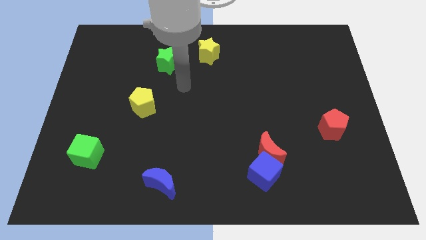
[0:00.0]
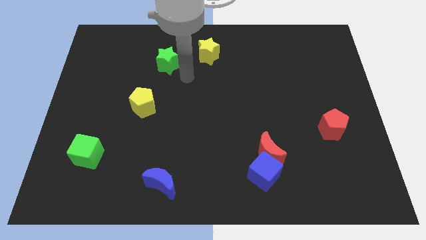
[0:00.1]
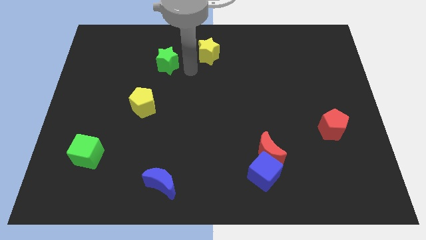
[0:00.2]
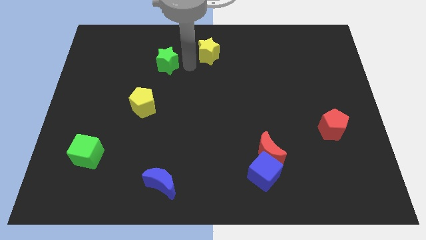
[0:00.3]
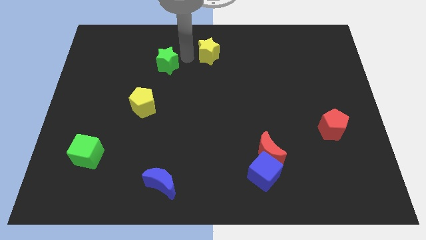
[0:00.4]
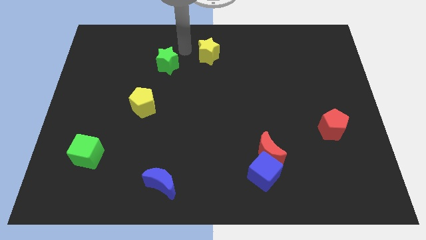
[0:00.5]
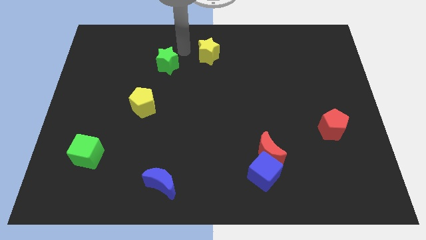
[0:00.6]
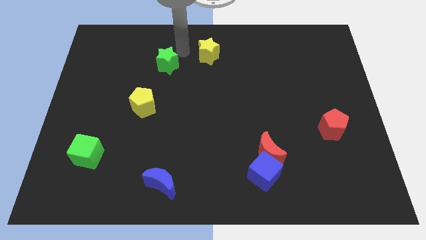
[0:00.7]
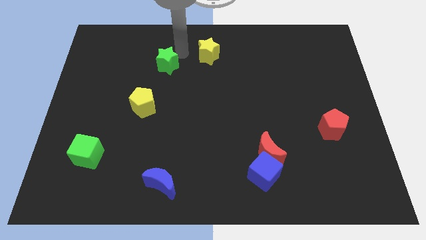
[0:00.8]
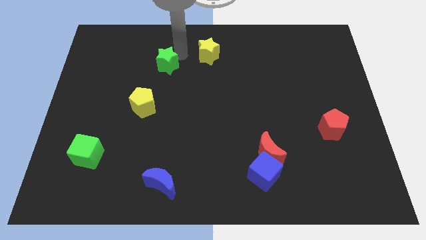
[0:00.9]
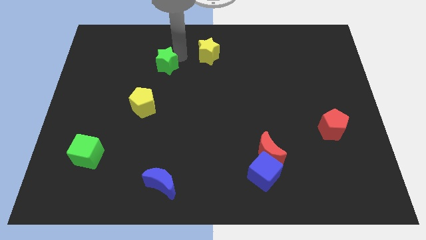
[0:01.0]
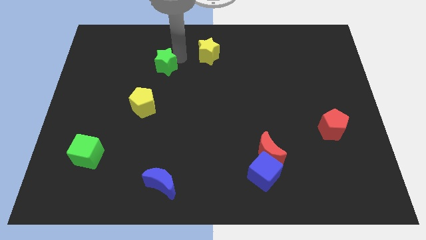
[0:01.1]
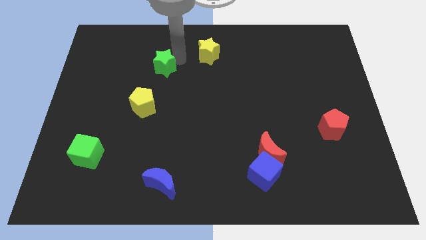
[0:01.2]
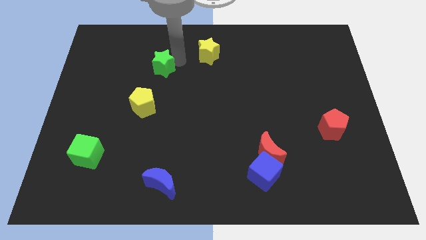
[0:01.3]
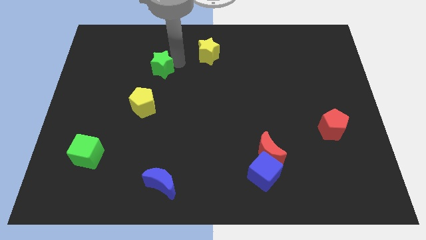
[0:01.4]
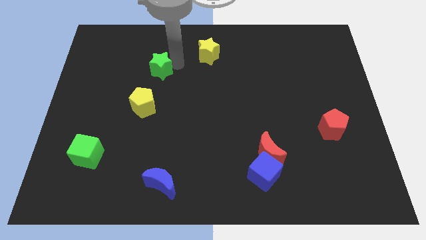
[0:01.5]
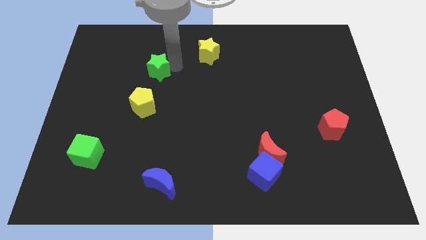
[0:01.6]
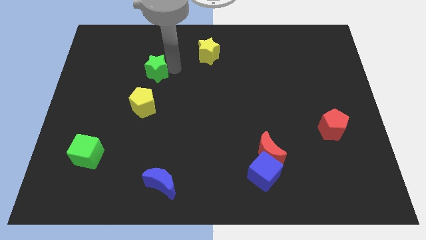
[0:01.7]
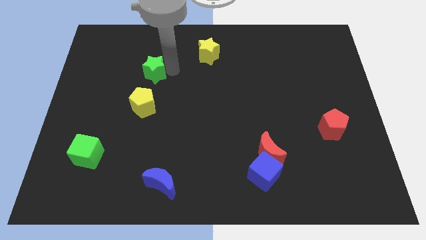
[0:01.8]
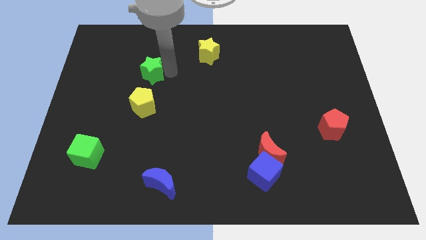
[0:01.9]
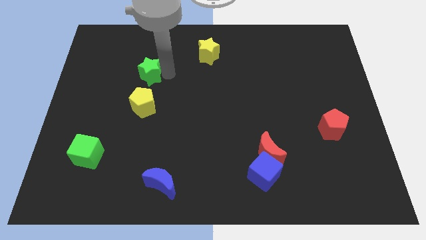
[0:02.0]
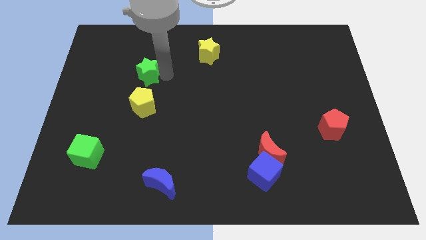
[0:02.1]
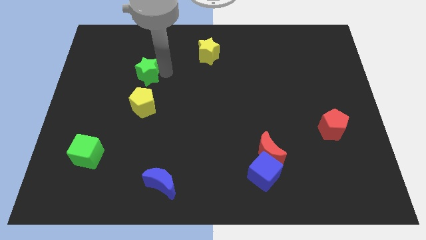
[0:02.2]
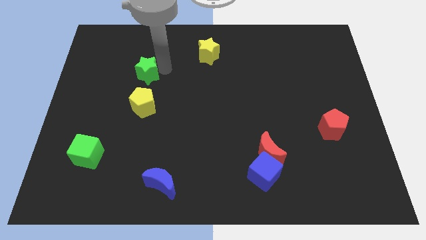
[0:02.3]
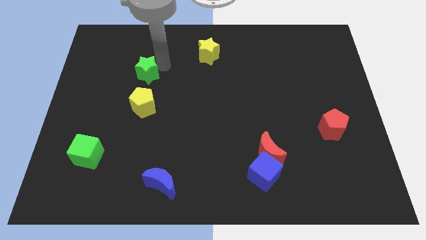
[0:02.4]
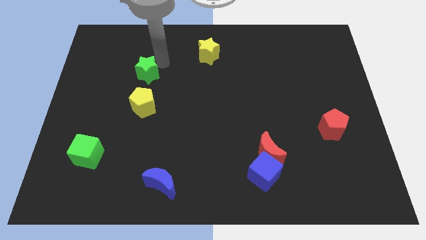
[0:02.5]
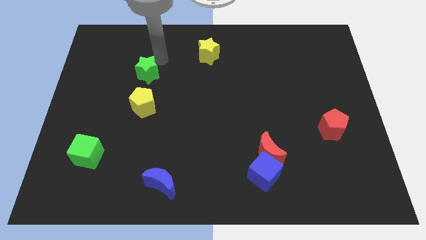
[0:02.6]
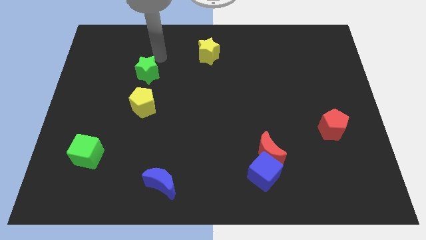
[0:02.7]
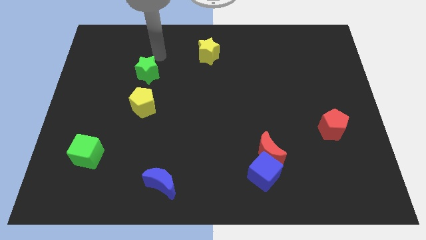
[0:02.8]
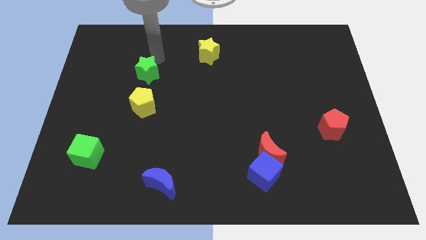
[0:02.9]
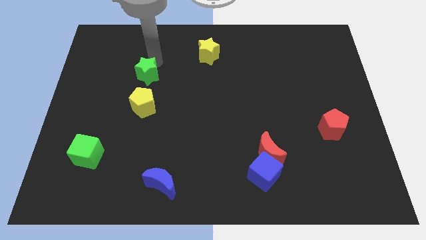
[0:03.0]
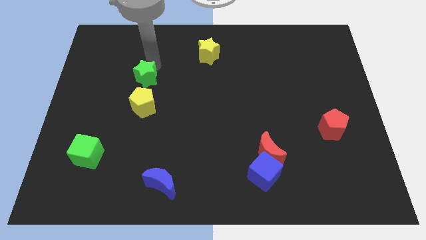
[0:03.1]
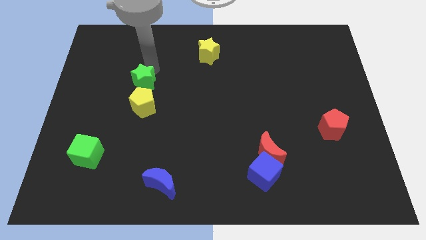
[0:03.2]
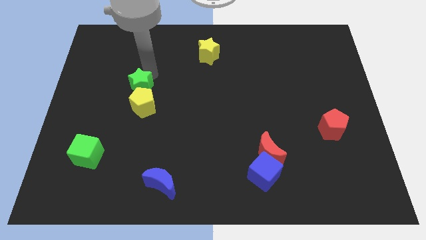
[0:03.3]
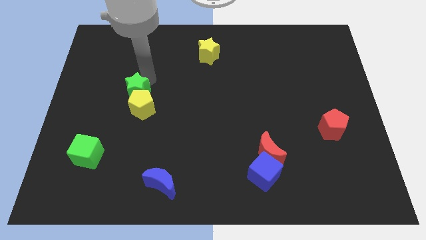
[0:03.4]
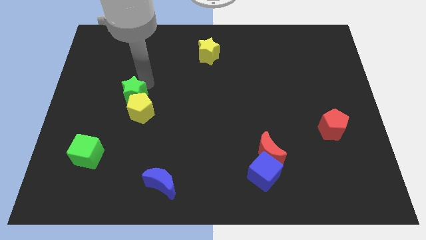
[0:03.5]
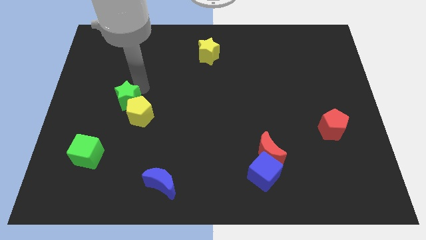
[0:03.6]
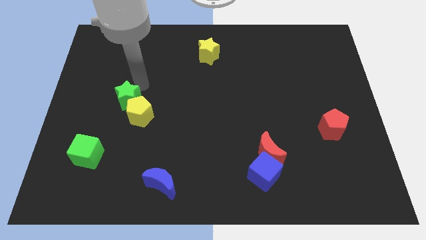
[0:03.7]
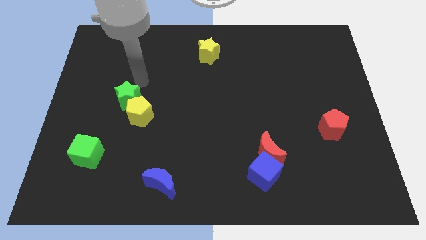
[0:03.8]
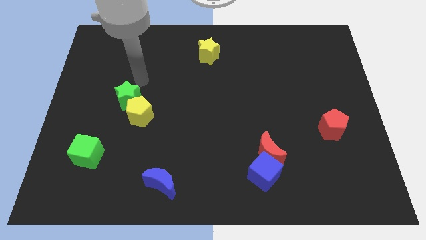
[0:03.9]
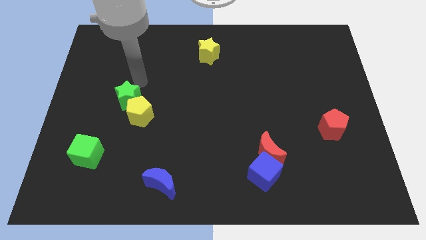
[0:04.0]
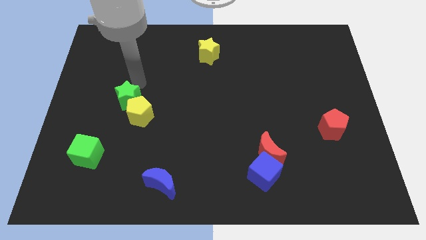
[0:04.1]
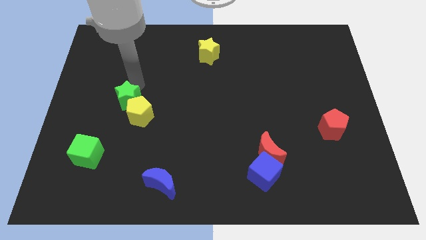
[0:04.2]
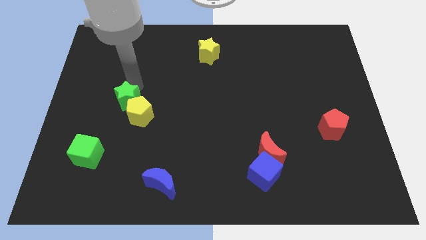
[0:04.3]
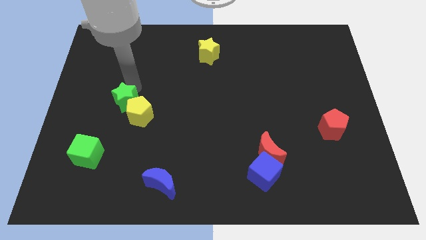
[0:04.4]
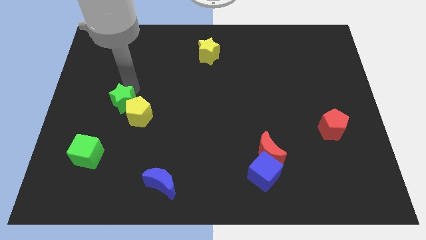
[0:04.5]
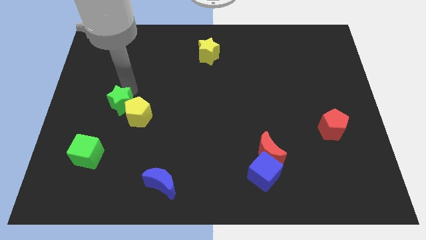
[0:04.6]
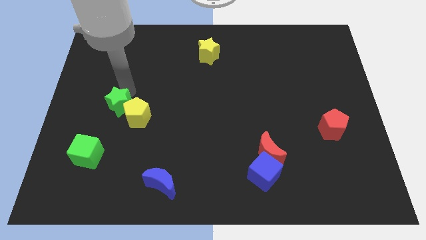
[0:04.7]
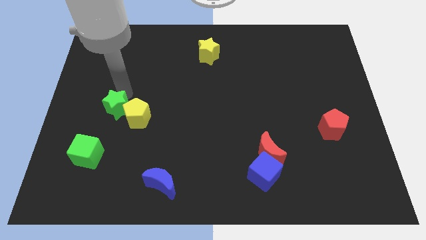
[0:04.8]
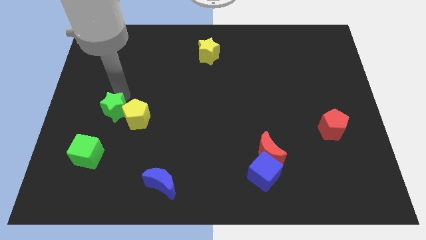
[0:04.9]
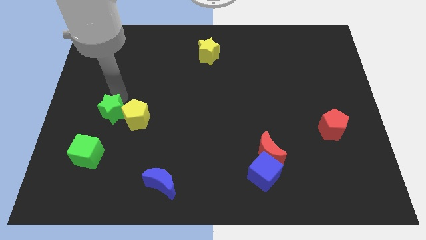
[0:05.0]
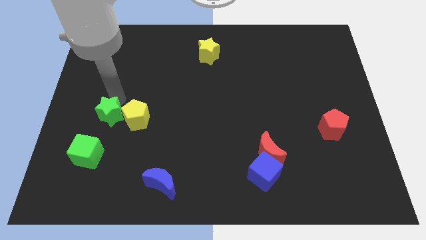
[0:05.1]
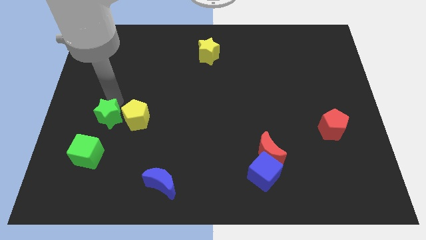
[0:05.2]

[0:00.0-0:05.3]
slide the green star to the top right side of the green cube

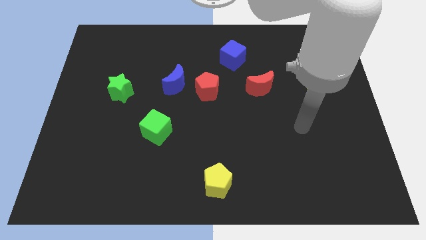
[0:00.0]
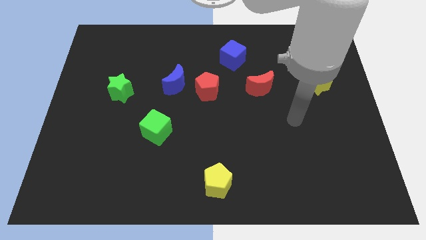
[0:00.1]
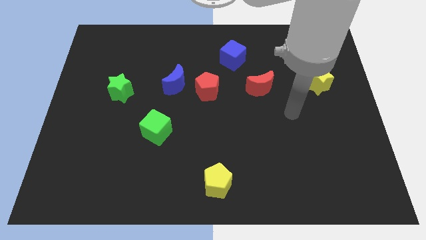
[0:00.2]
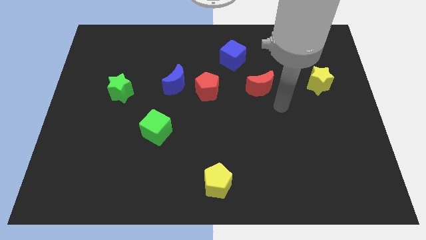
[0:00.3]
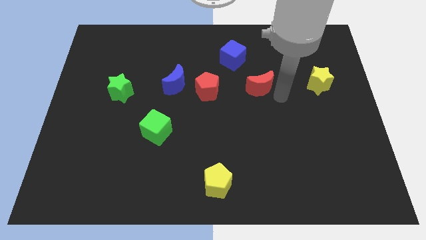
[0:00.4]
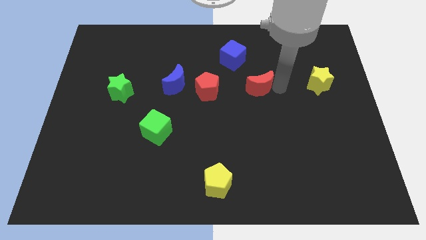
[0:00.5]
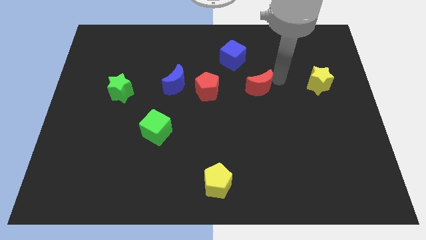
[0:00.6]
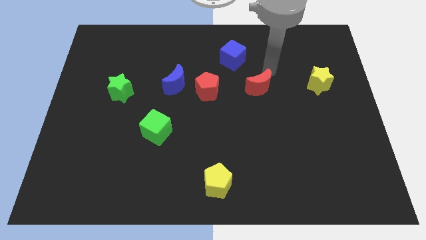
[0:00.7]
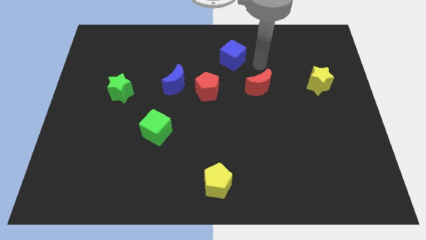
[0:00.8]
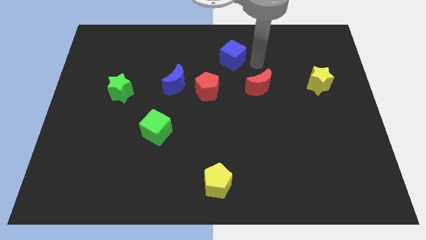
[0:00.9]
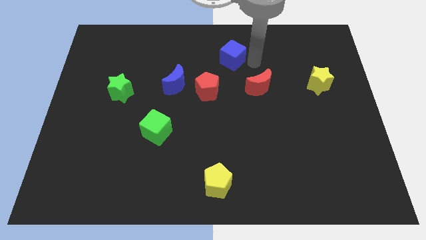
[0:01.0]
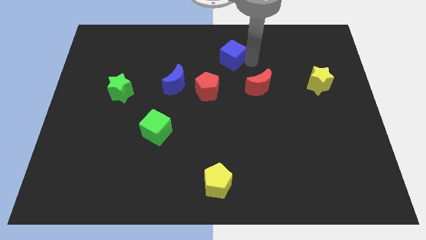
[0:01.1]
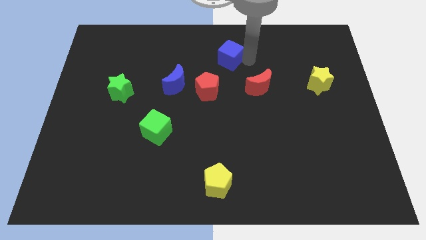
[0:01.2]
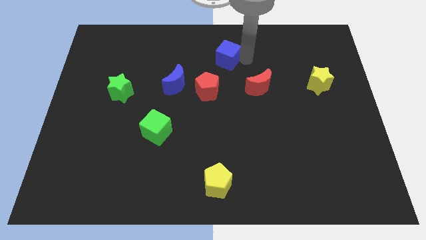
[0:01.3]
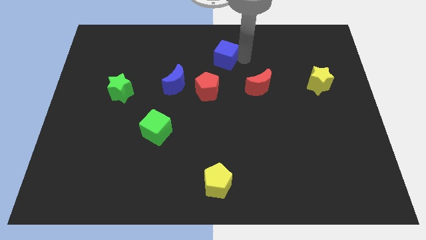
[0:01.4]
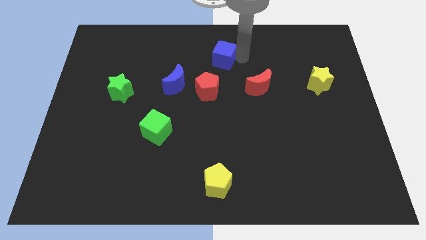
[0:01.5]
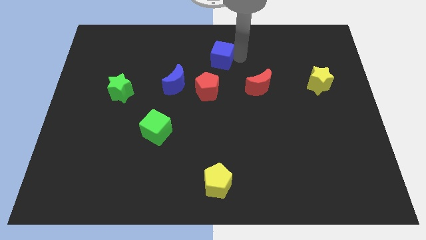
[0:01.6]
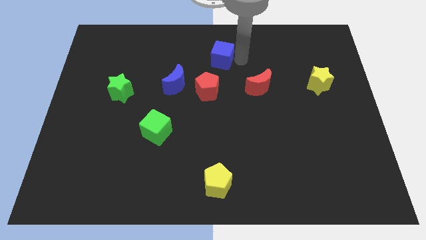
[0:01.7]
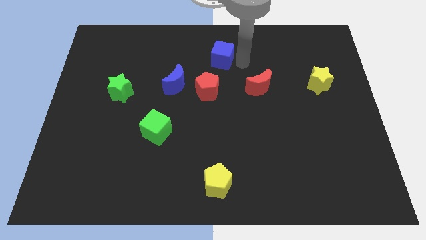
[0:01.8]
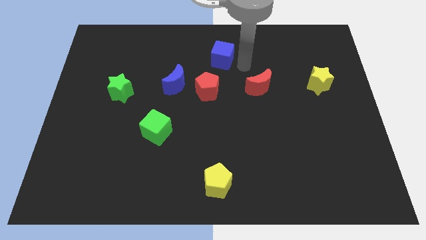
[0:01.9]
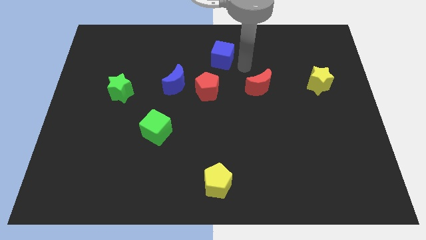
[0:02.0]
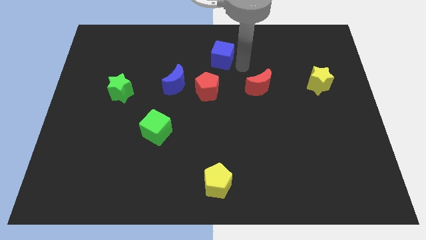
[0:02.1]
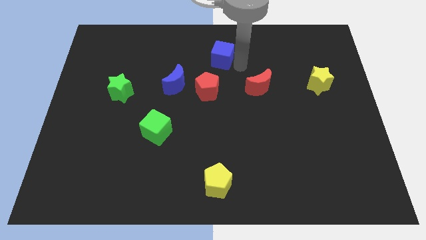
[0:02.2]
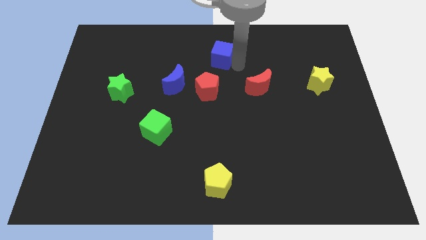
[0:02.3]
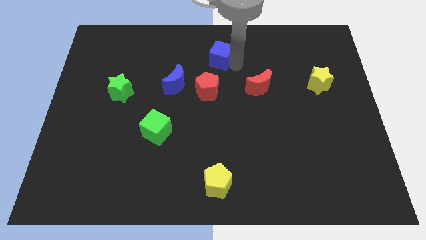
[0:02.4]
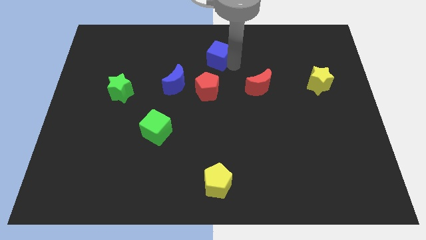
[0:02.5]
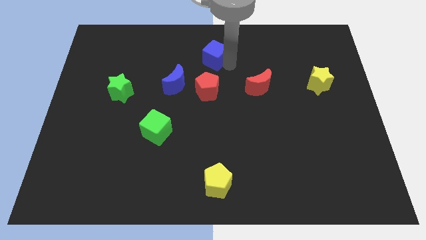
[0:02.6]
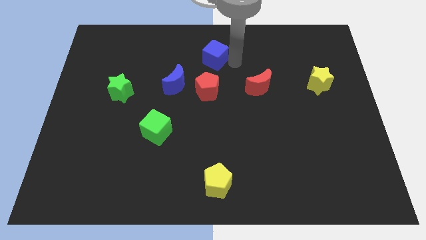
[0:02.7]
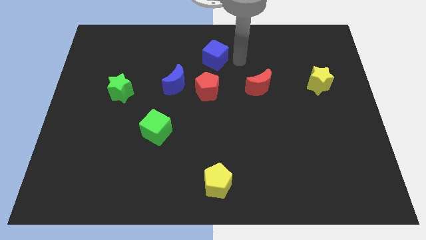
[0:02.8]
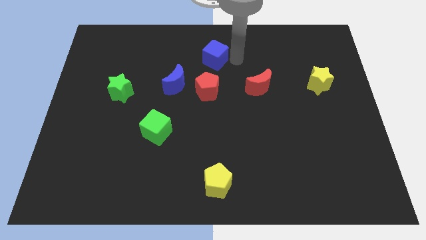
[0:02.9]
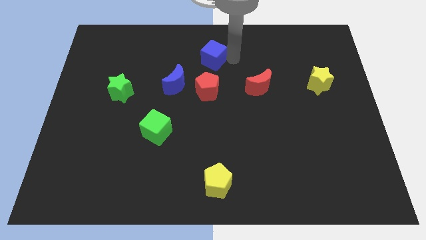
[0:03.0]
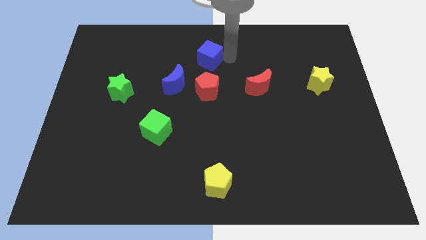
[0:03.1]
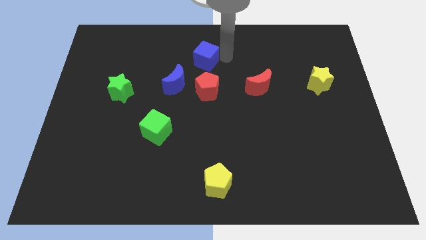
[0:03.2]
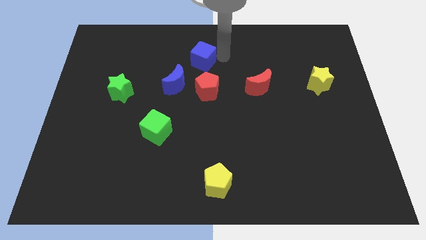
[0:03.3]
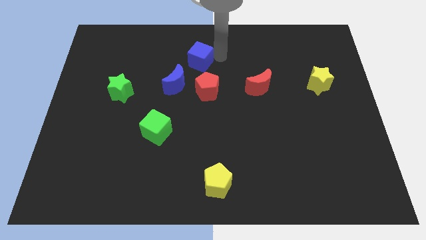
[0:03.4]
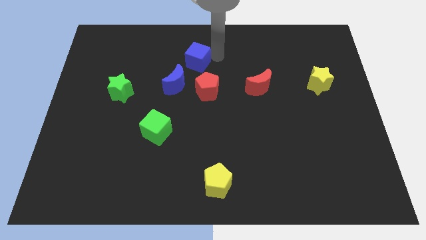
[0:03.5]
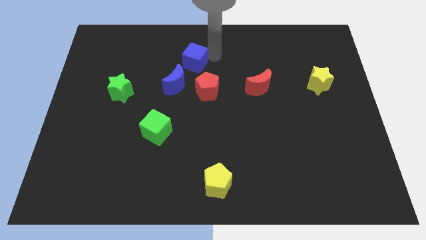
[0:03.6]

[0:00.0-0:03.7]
move the blue cube above the blue moon
